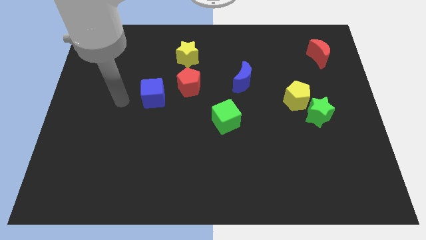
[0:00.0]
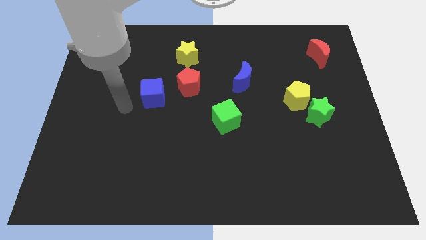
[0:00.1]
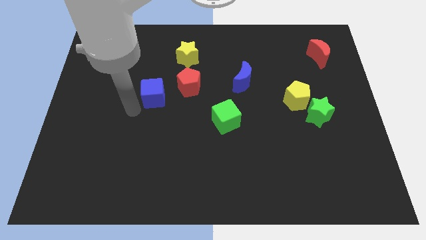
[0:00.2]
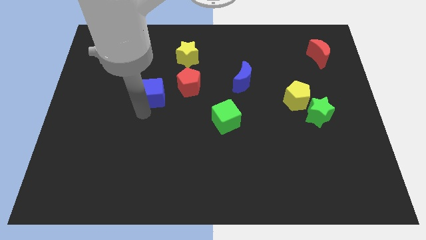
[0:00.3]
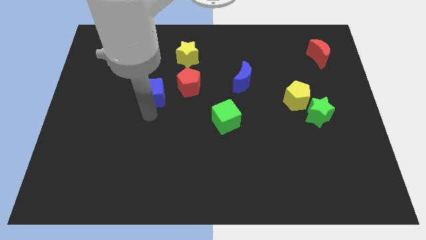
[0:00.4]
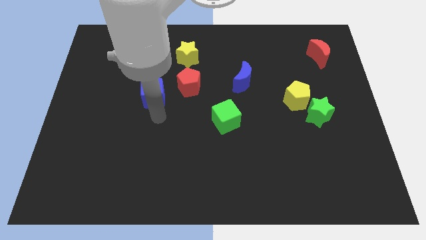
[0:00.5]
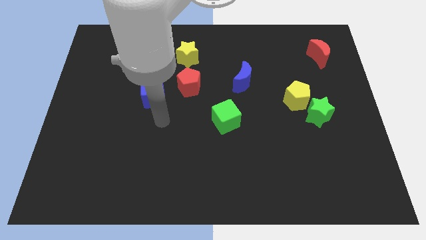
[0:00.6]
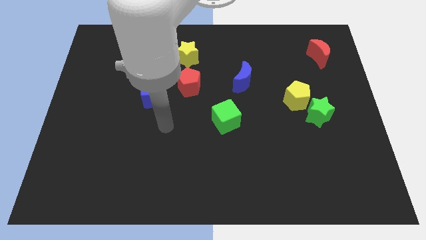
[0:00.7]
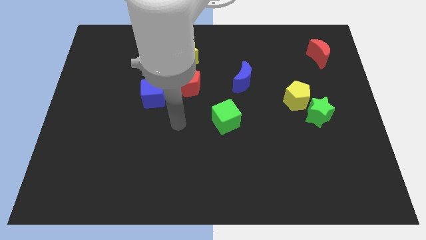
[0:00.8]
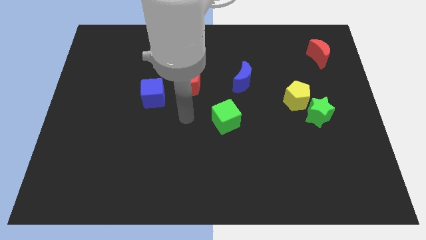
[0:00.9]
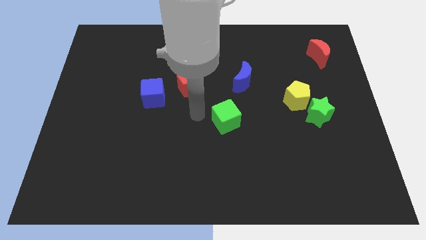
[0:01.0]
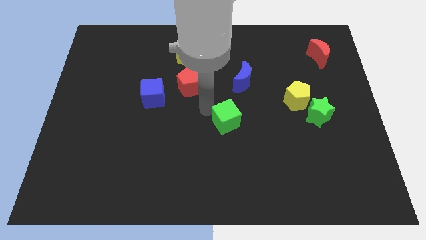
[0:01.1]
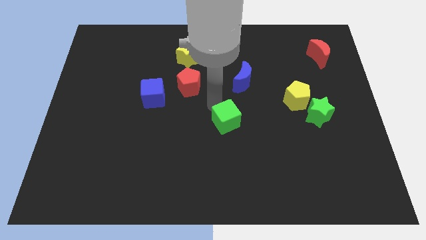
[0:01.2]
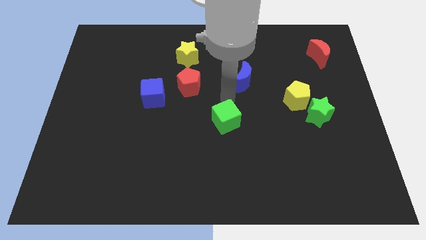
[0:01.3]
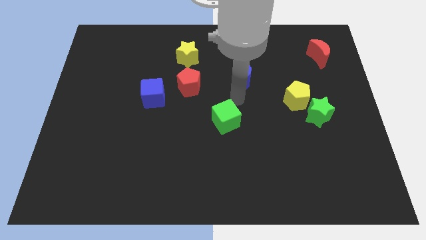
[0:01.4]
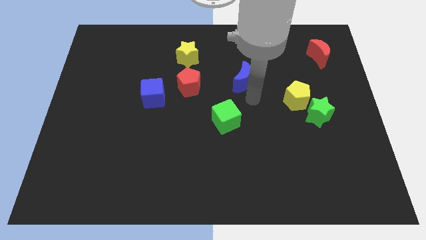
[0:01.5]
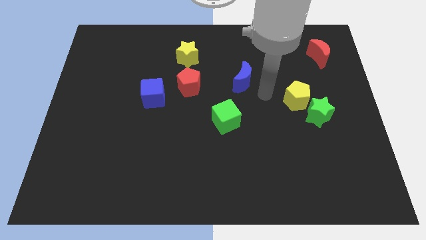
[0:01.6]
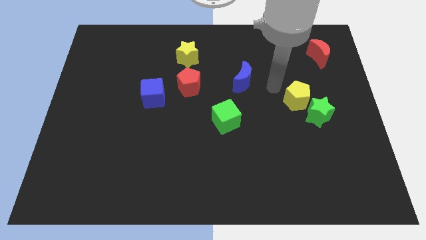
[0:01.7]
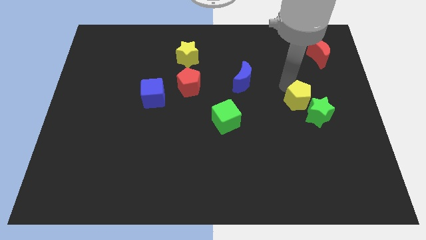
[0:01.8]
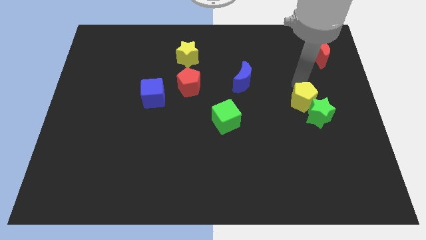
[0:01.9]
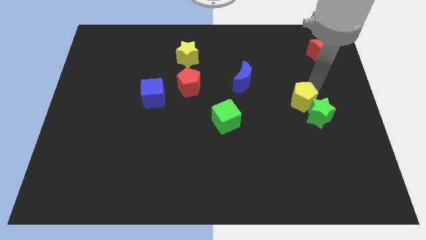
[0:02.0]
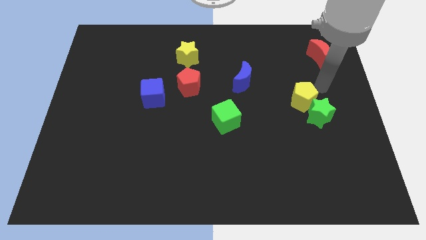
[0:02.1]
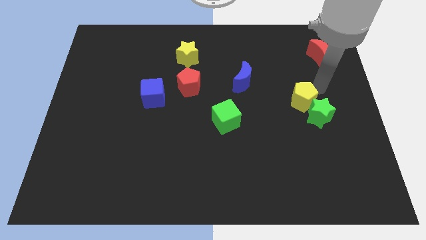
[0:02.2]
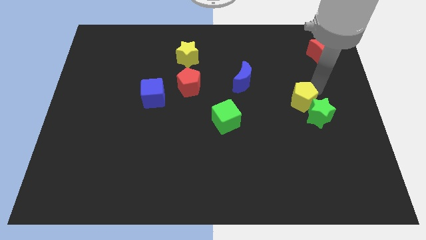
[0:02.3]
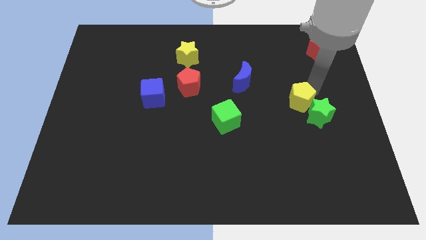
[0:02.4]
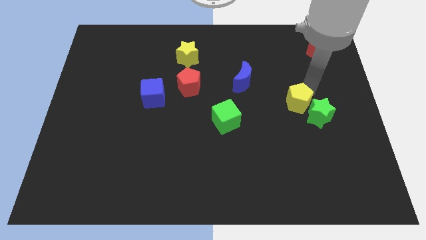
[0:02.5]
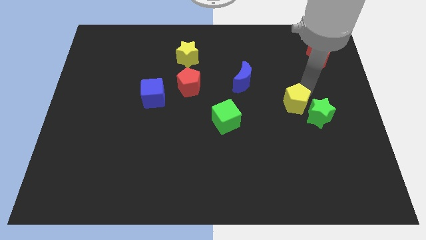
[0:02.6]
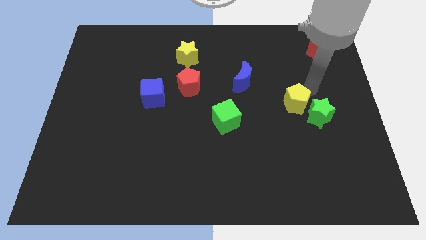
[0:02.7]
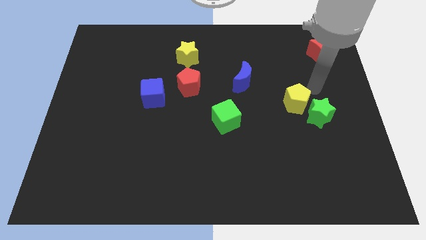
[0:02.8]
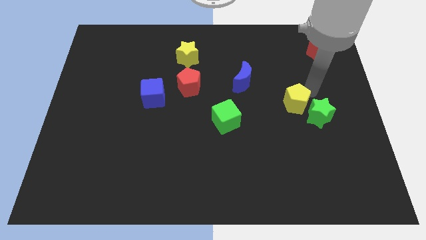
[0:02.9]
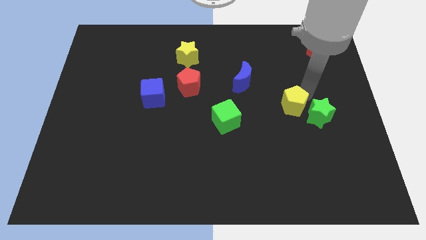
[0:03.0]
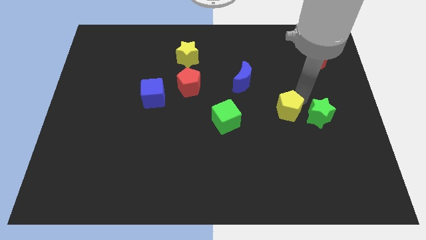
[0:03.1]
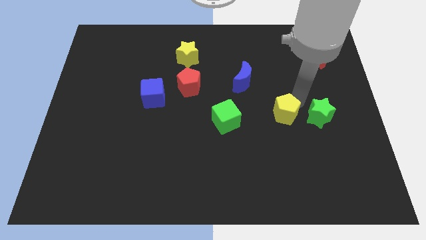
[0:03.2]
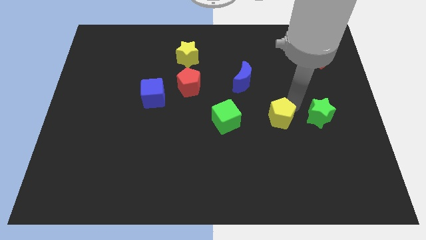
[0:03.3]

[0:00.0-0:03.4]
slide the yellow pentagon diagonally down and left slightly

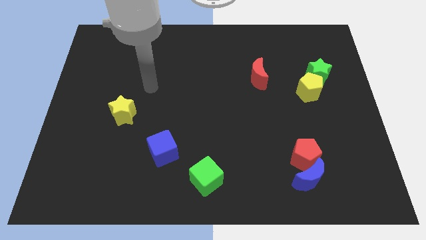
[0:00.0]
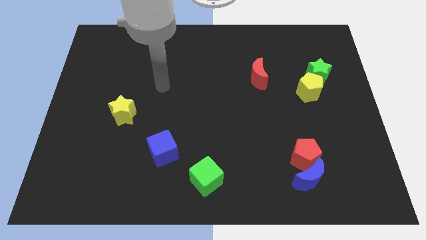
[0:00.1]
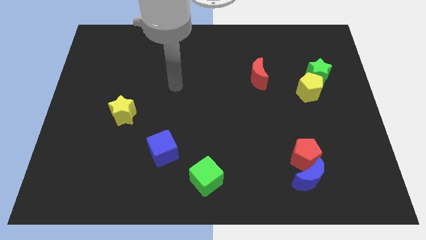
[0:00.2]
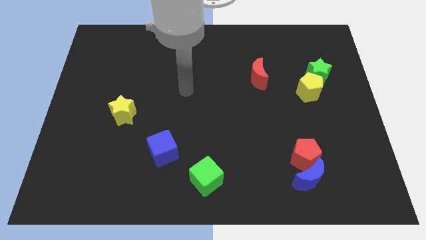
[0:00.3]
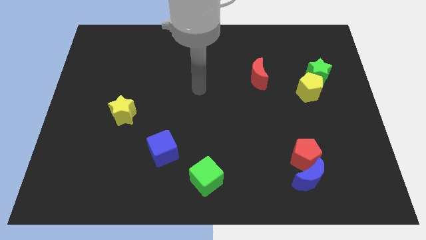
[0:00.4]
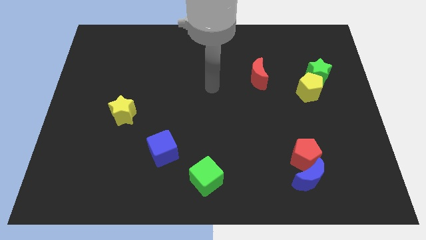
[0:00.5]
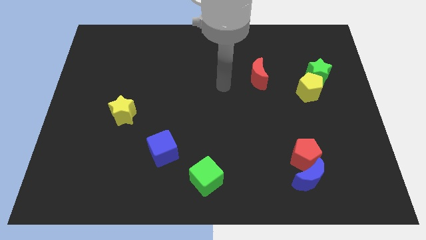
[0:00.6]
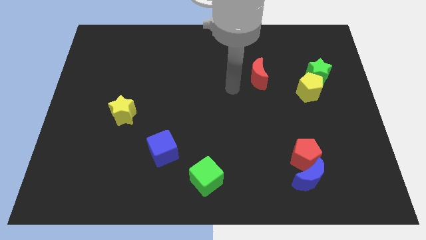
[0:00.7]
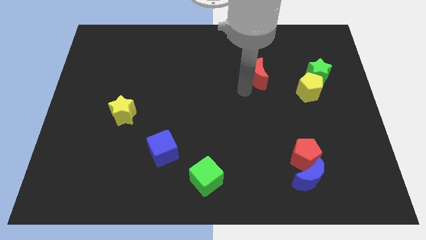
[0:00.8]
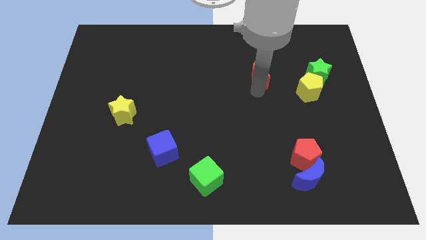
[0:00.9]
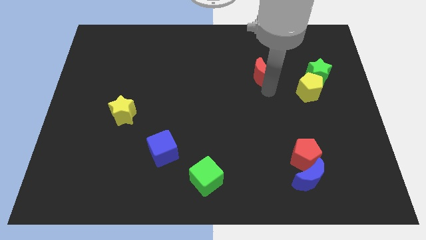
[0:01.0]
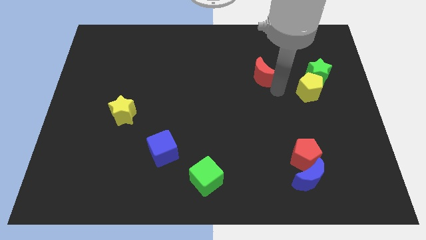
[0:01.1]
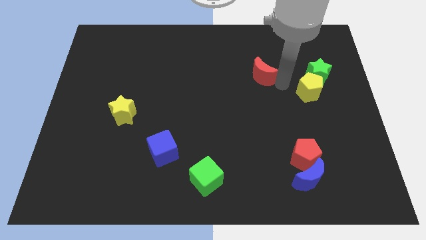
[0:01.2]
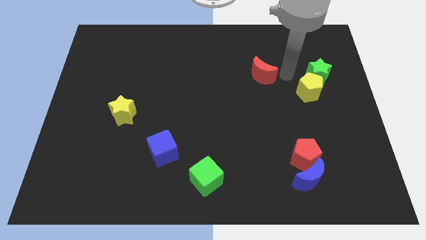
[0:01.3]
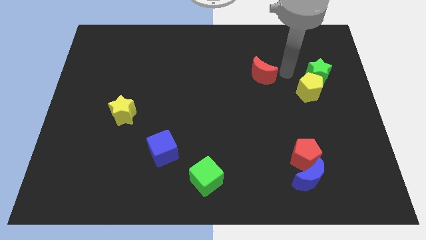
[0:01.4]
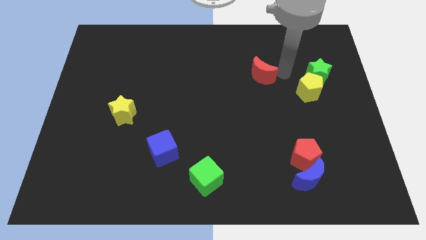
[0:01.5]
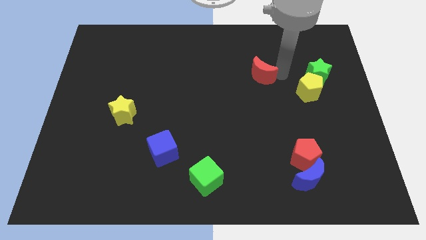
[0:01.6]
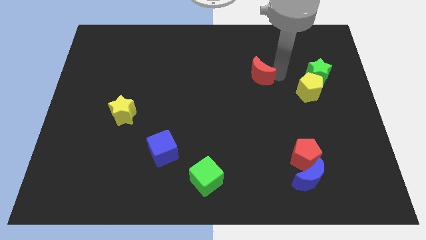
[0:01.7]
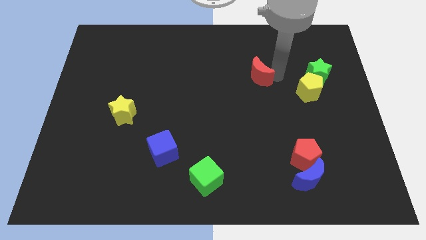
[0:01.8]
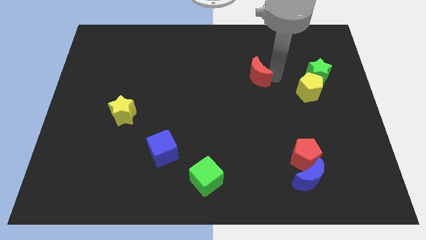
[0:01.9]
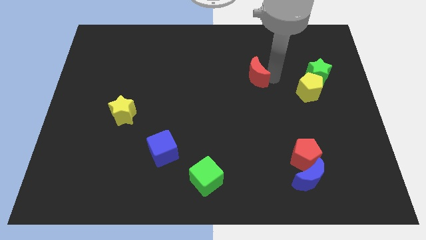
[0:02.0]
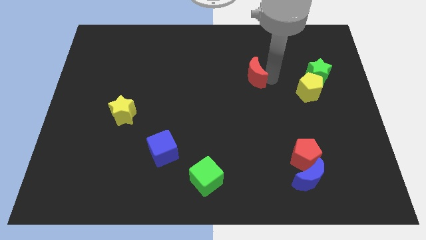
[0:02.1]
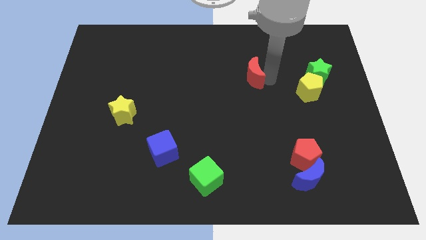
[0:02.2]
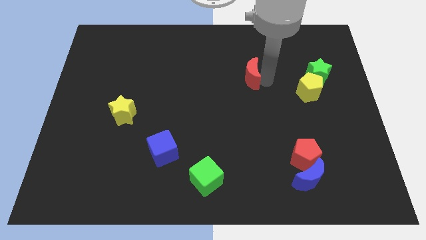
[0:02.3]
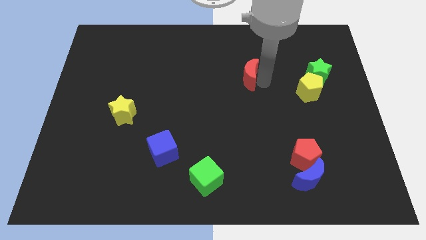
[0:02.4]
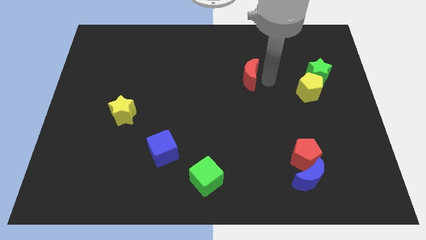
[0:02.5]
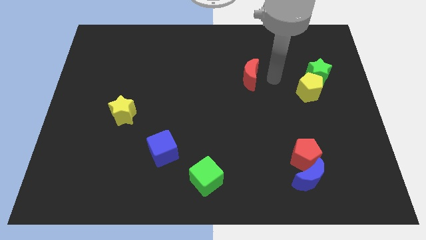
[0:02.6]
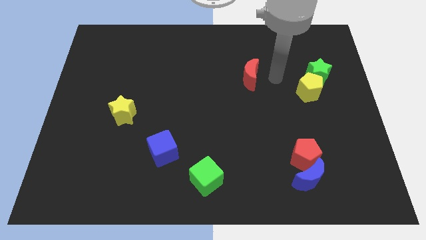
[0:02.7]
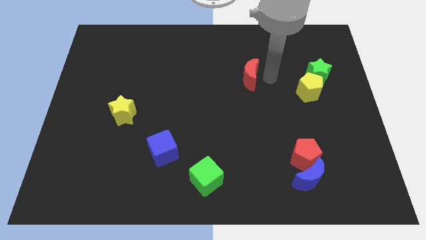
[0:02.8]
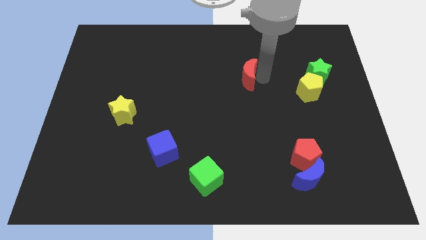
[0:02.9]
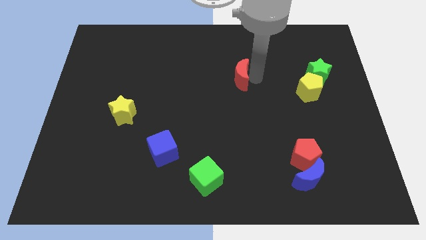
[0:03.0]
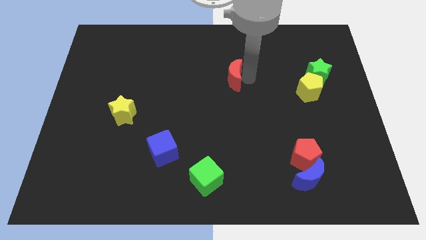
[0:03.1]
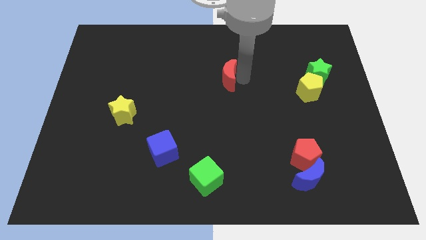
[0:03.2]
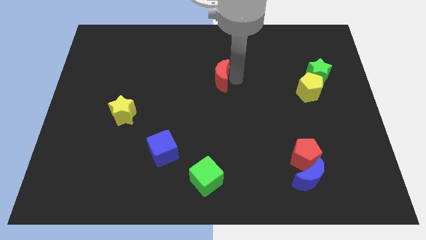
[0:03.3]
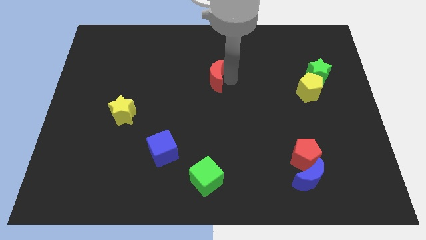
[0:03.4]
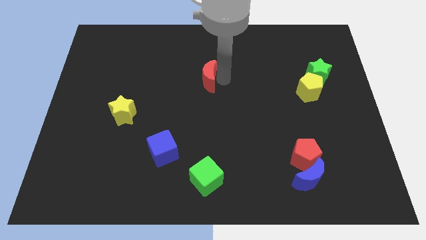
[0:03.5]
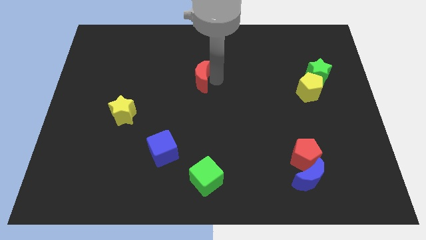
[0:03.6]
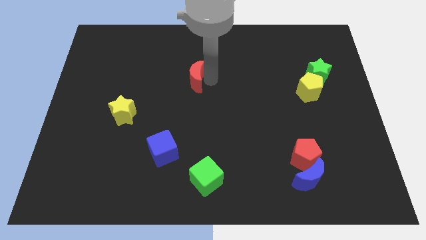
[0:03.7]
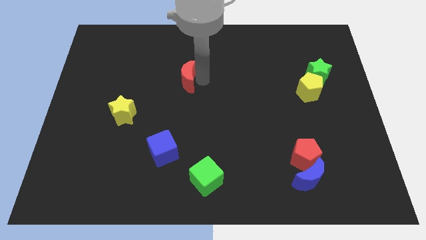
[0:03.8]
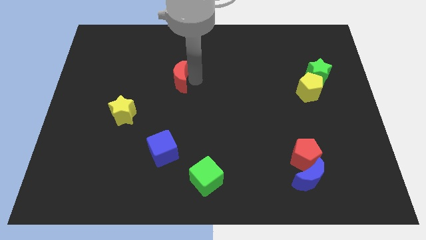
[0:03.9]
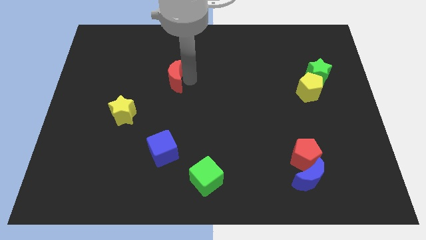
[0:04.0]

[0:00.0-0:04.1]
push the red moon left

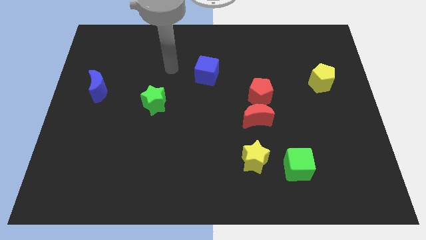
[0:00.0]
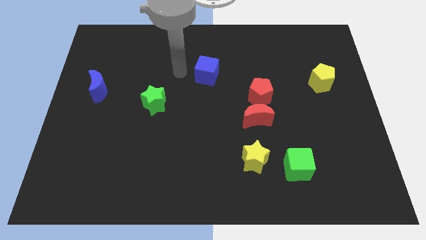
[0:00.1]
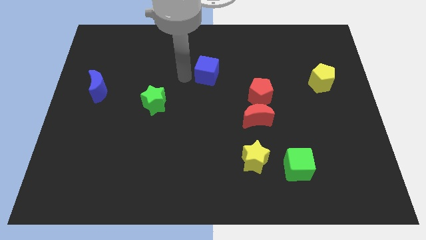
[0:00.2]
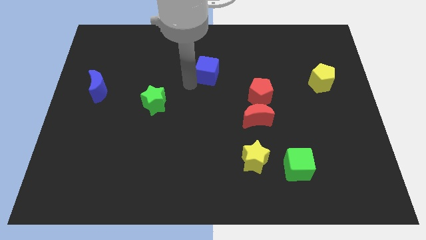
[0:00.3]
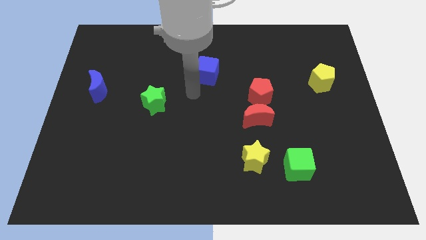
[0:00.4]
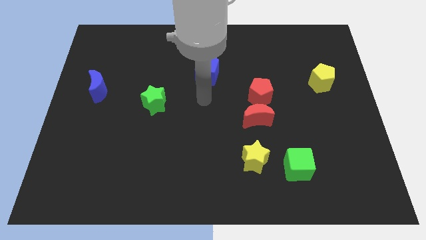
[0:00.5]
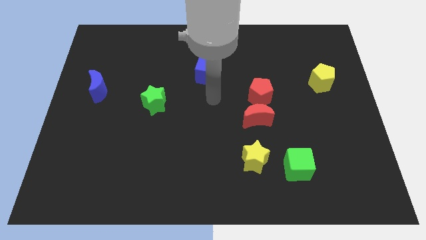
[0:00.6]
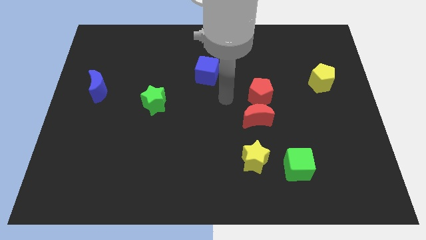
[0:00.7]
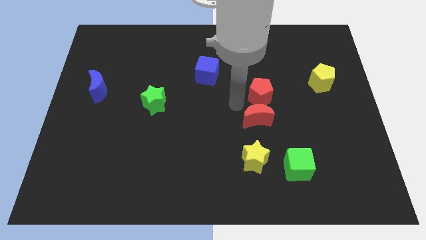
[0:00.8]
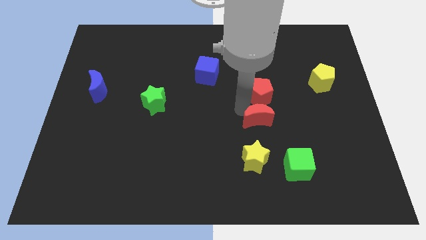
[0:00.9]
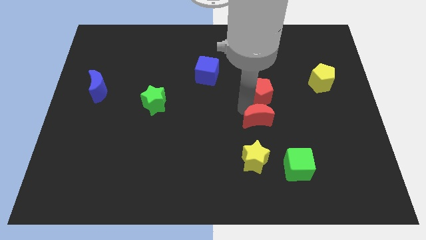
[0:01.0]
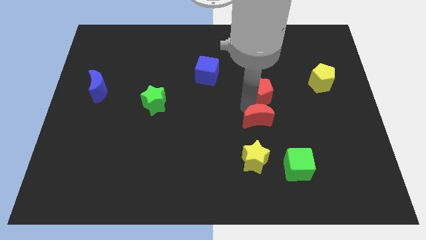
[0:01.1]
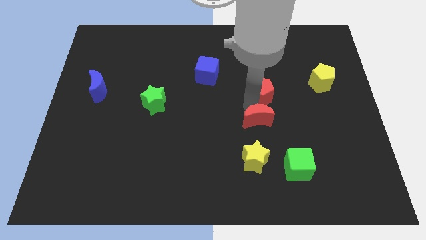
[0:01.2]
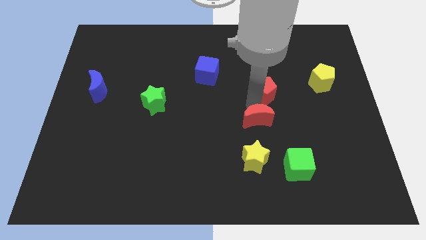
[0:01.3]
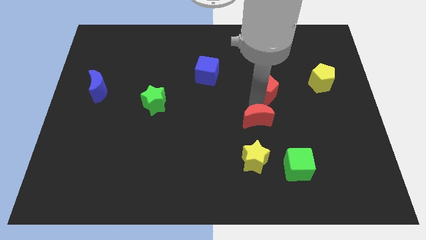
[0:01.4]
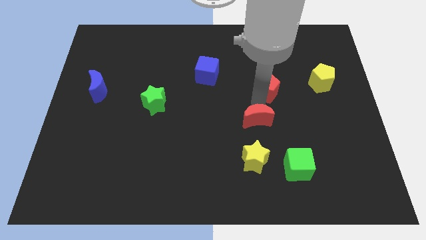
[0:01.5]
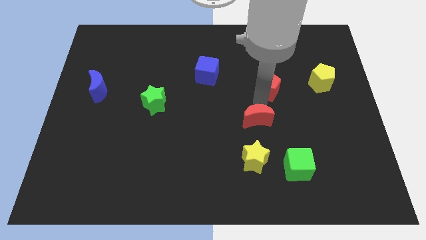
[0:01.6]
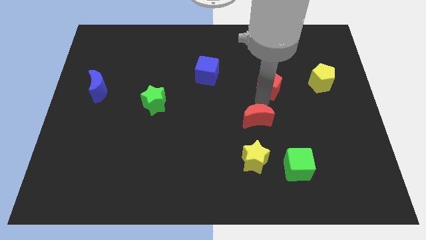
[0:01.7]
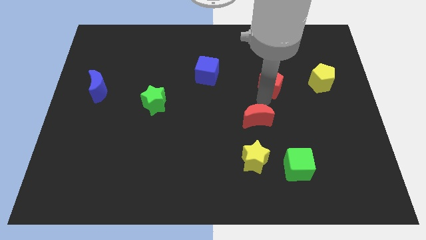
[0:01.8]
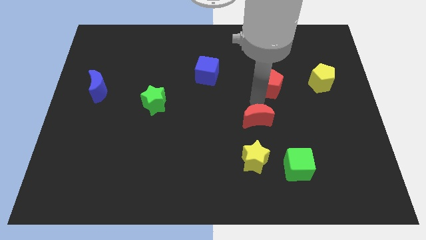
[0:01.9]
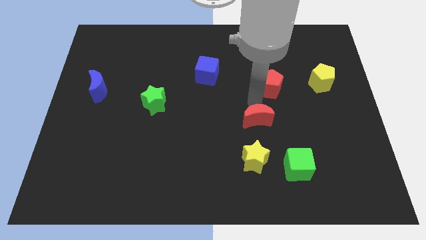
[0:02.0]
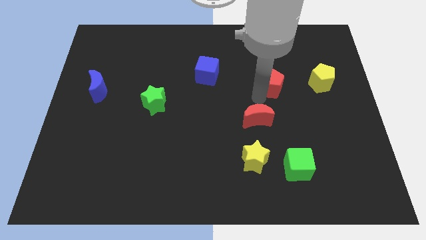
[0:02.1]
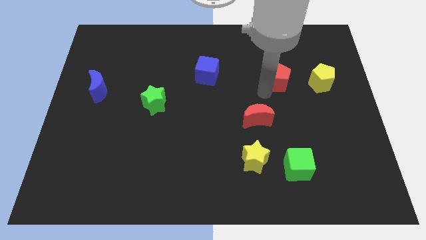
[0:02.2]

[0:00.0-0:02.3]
slightly push the red pentagon upwards and then to the right
